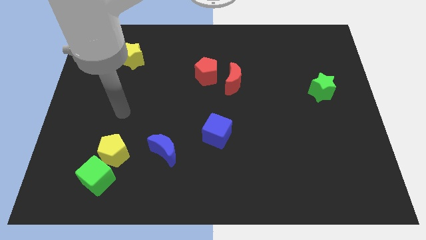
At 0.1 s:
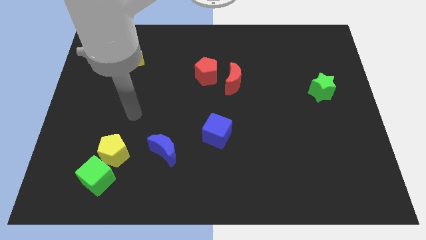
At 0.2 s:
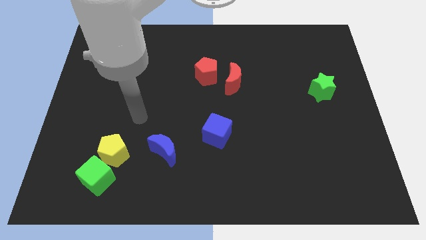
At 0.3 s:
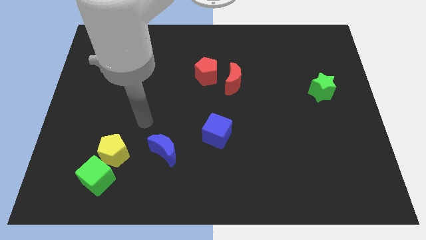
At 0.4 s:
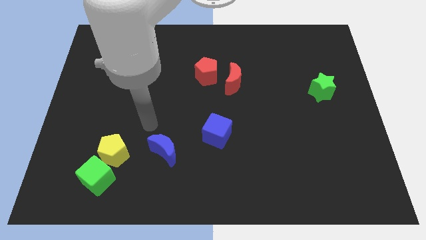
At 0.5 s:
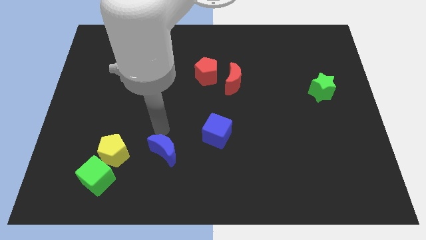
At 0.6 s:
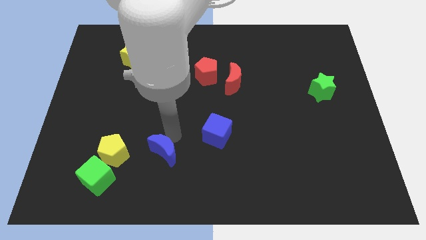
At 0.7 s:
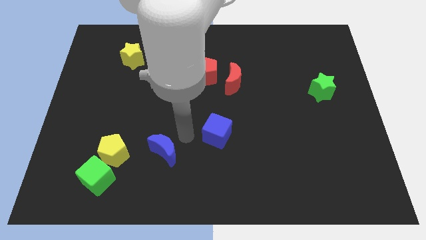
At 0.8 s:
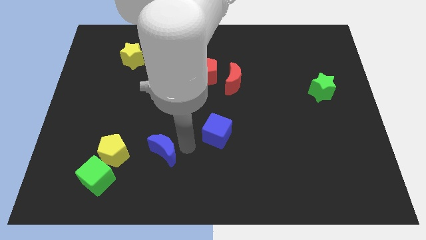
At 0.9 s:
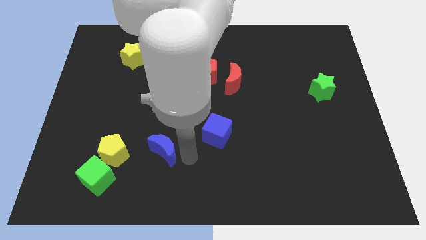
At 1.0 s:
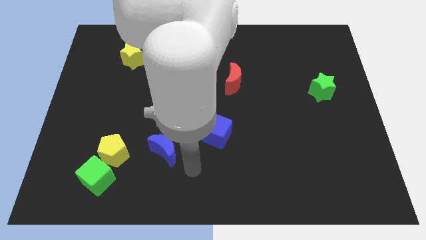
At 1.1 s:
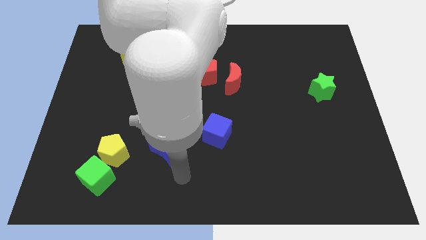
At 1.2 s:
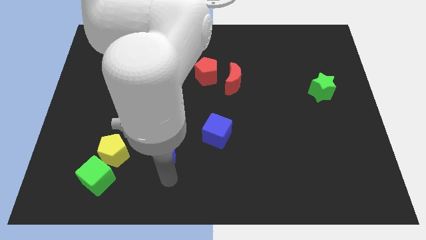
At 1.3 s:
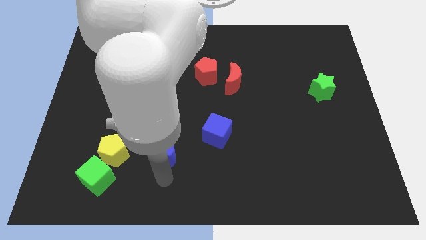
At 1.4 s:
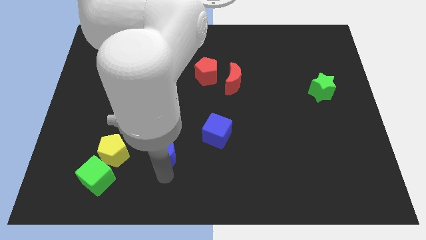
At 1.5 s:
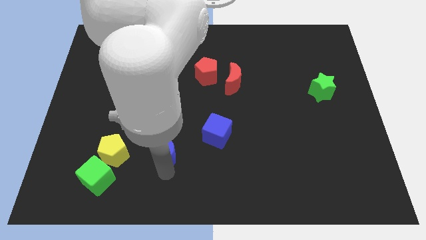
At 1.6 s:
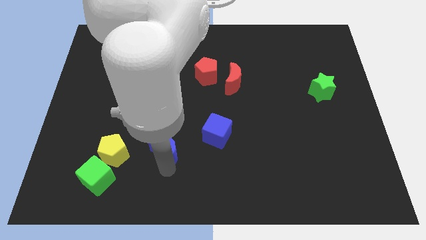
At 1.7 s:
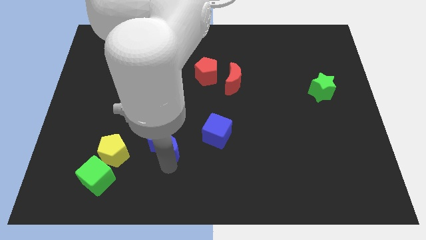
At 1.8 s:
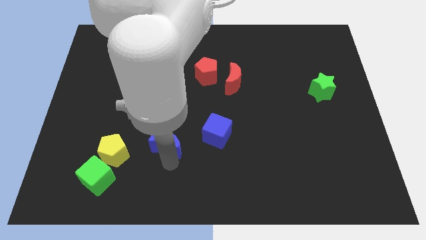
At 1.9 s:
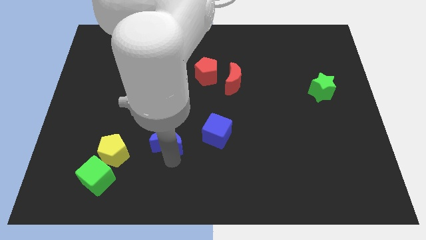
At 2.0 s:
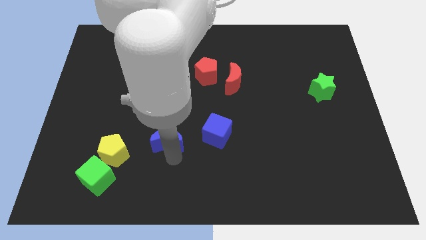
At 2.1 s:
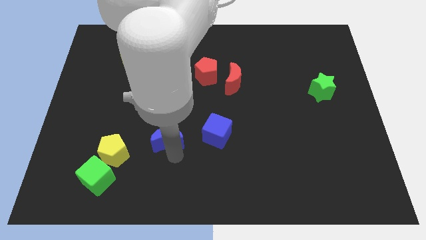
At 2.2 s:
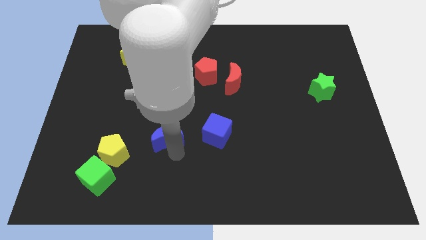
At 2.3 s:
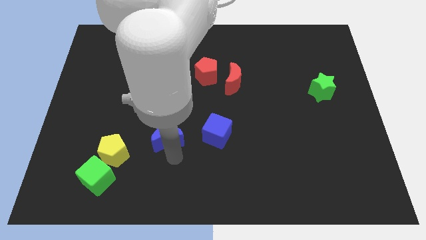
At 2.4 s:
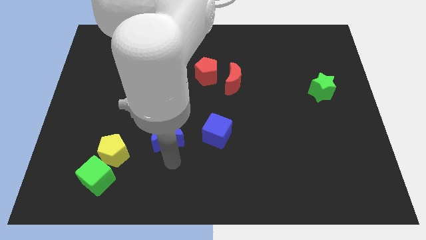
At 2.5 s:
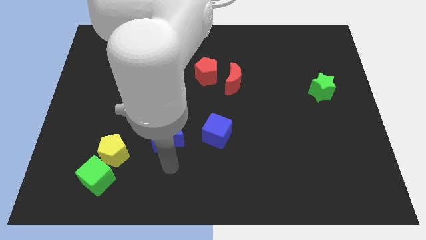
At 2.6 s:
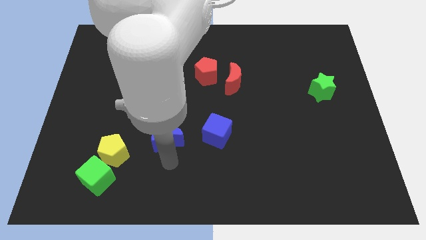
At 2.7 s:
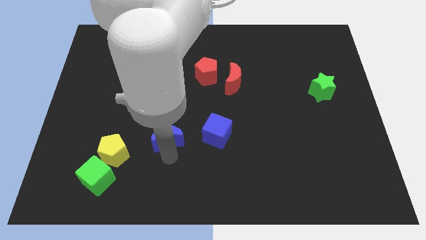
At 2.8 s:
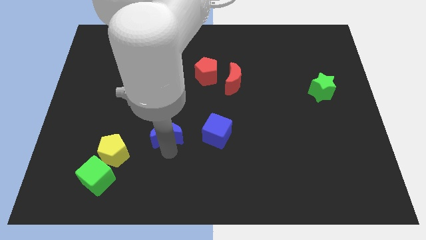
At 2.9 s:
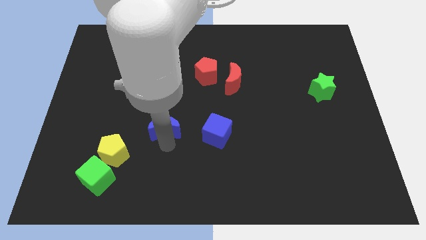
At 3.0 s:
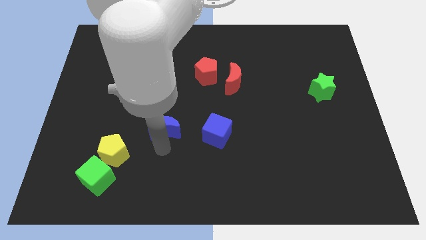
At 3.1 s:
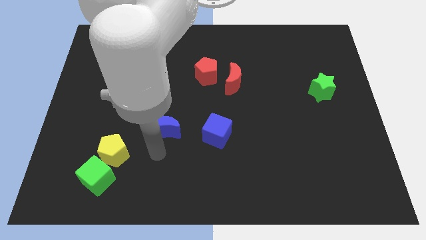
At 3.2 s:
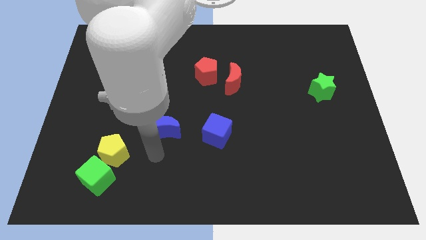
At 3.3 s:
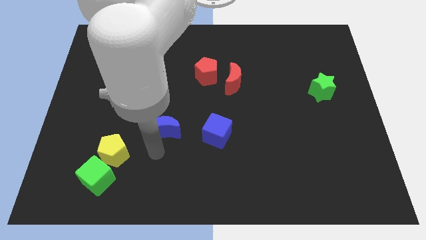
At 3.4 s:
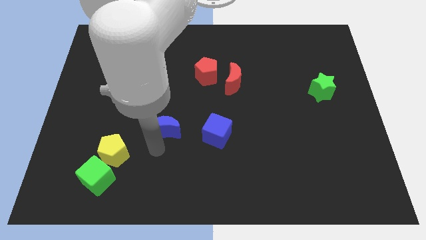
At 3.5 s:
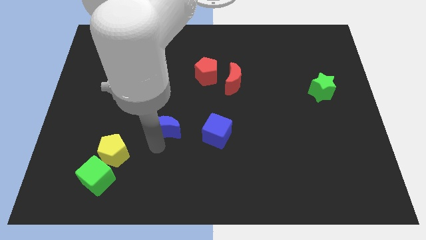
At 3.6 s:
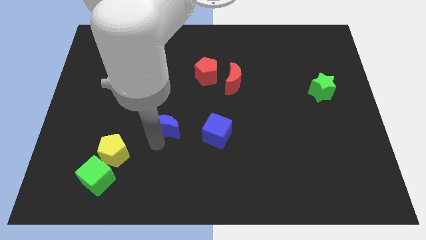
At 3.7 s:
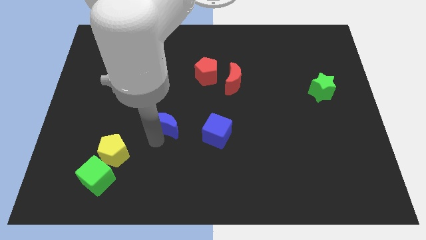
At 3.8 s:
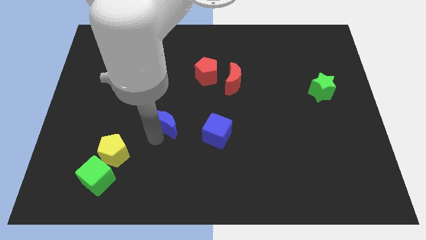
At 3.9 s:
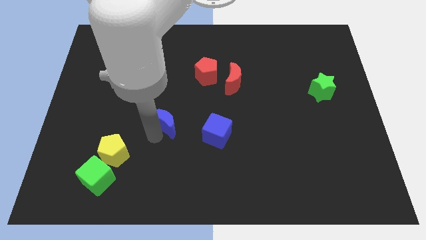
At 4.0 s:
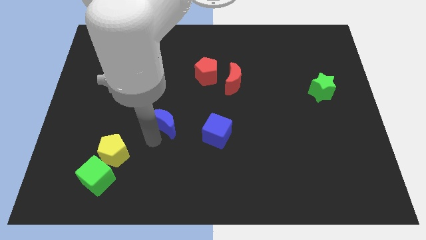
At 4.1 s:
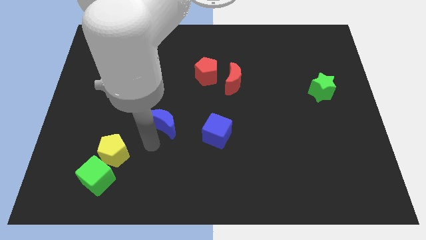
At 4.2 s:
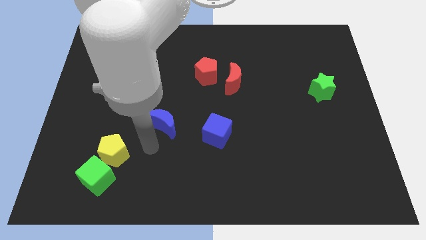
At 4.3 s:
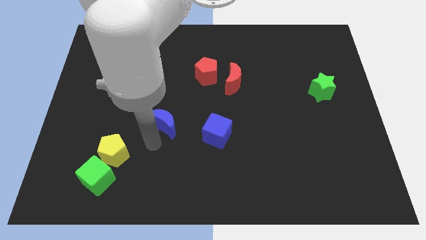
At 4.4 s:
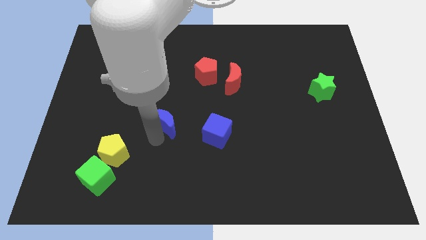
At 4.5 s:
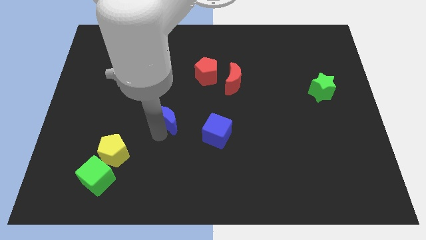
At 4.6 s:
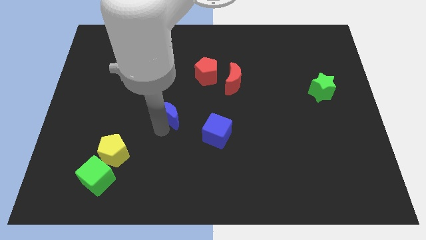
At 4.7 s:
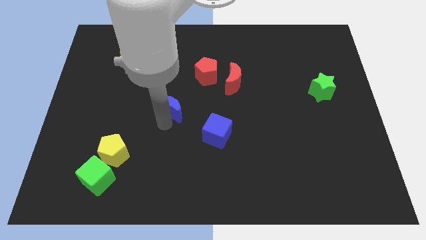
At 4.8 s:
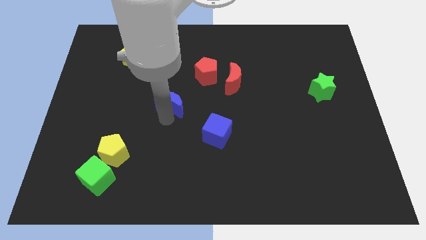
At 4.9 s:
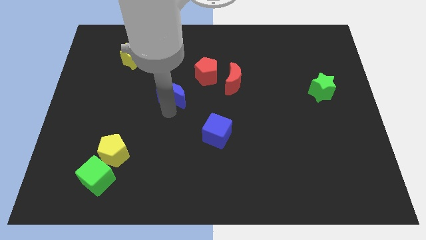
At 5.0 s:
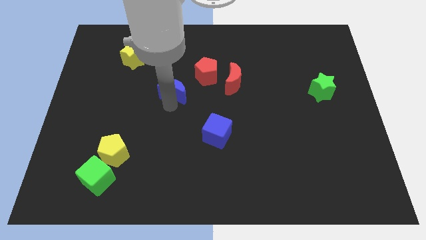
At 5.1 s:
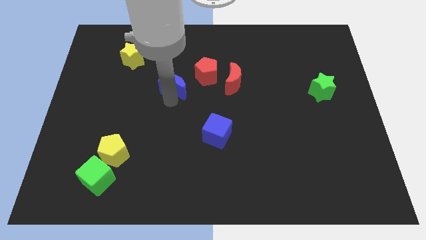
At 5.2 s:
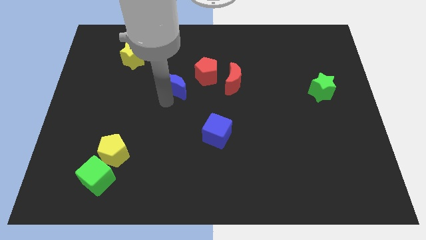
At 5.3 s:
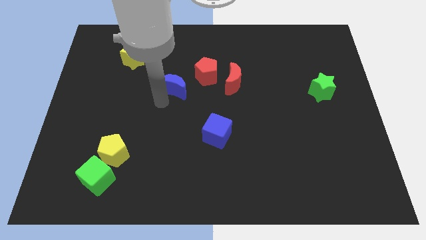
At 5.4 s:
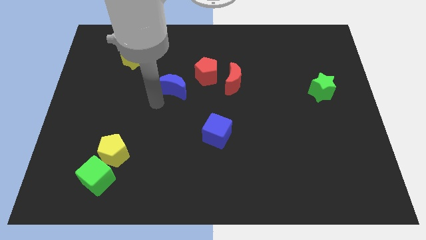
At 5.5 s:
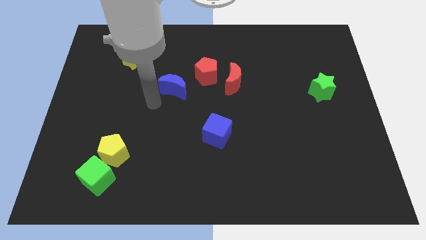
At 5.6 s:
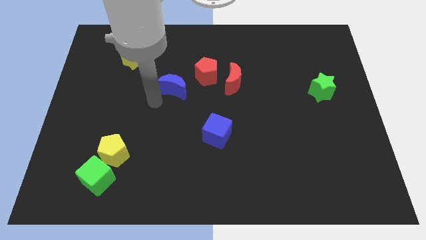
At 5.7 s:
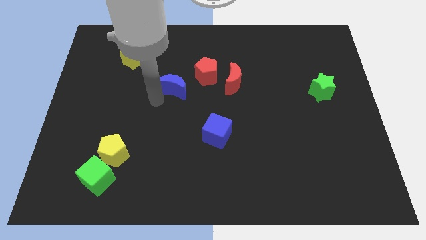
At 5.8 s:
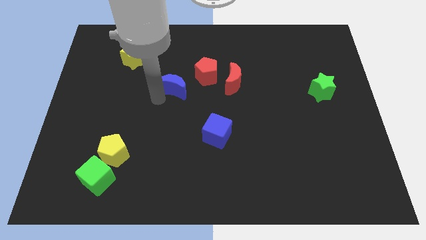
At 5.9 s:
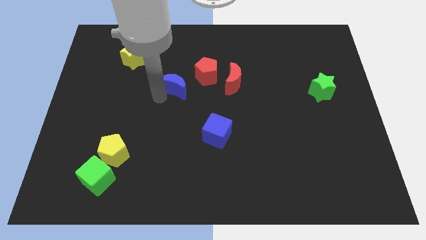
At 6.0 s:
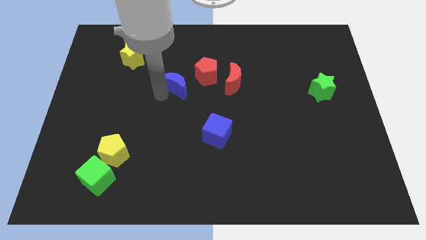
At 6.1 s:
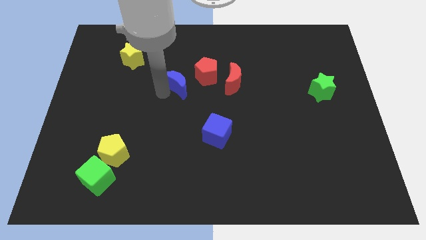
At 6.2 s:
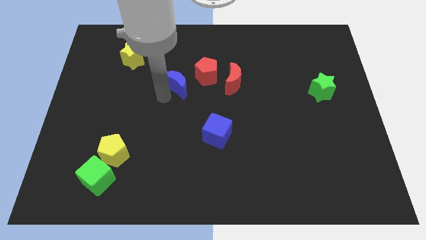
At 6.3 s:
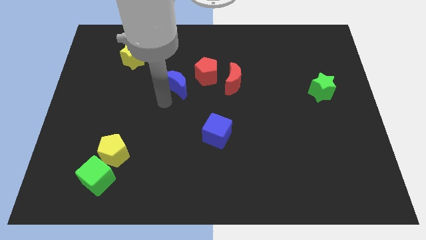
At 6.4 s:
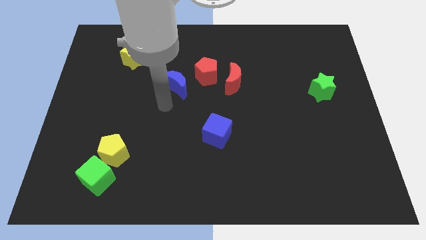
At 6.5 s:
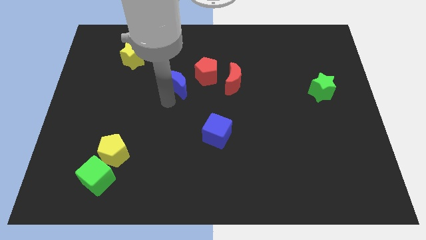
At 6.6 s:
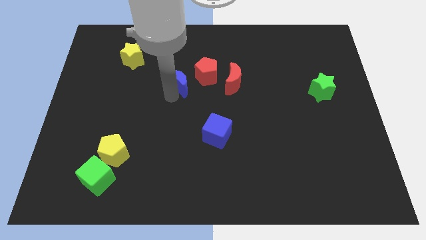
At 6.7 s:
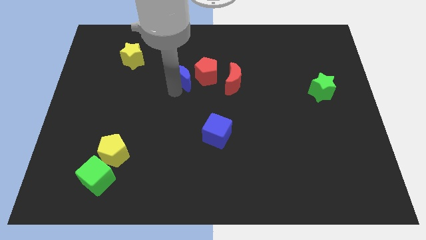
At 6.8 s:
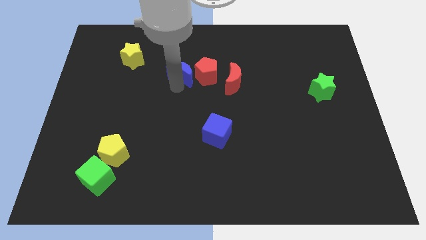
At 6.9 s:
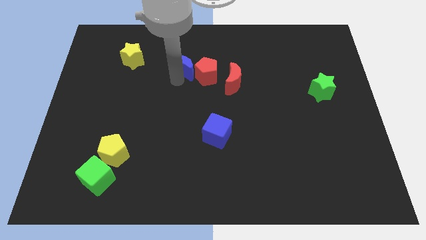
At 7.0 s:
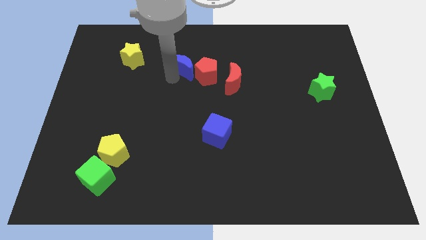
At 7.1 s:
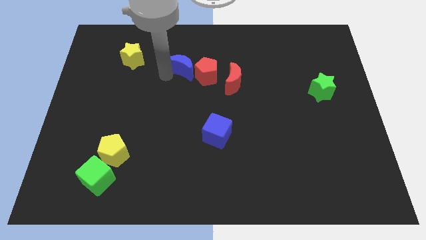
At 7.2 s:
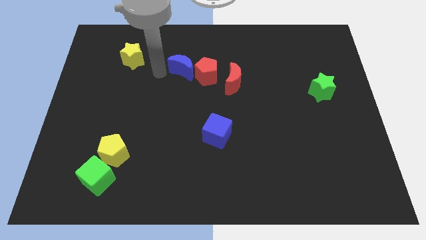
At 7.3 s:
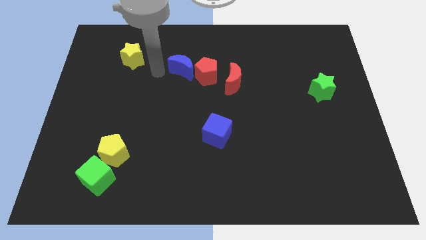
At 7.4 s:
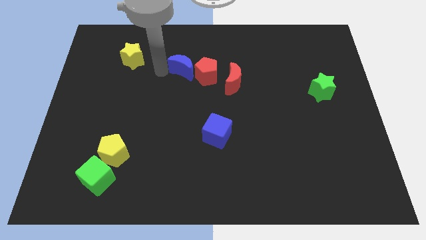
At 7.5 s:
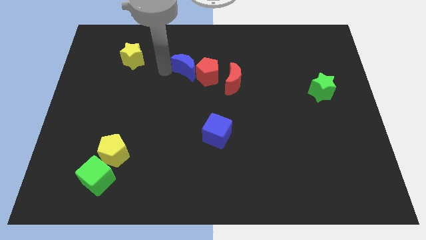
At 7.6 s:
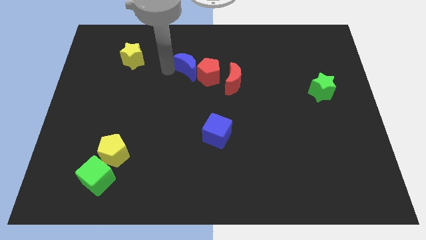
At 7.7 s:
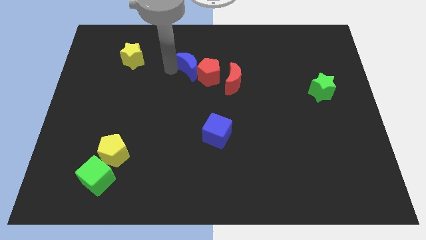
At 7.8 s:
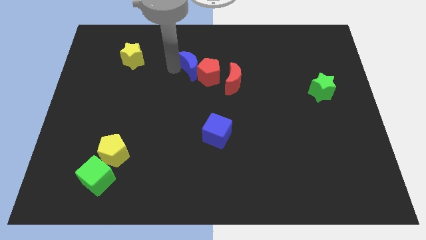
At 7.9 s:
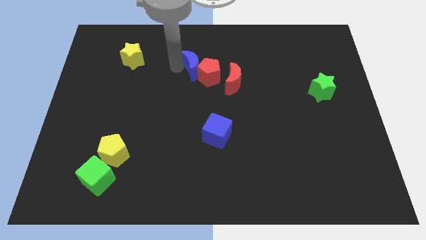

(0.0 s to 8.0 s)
move the blue moon to the top left of the red moon
